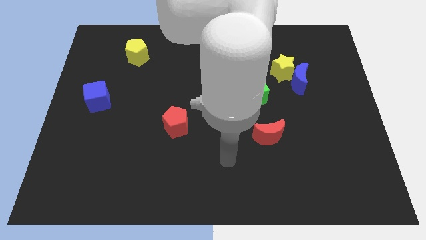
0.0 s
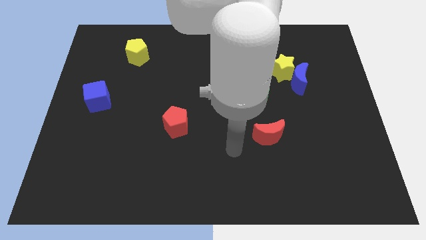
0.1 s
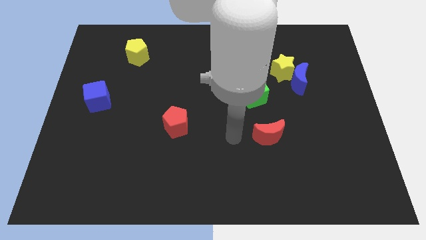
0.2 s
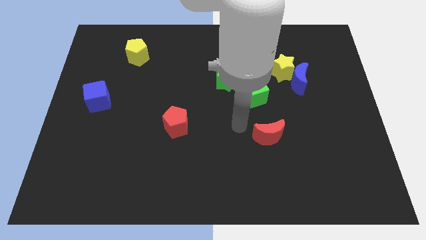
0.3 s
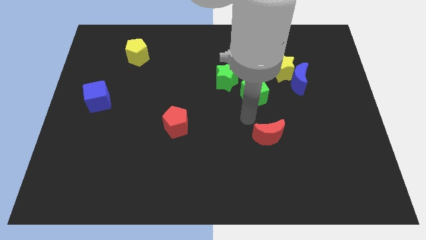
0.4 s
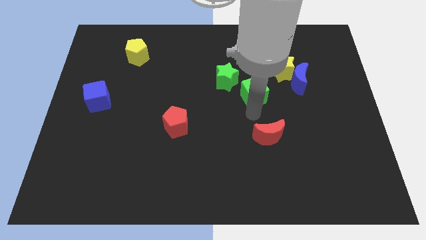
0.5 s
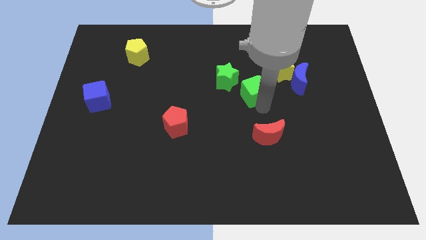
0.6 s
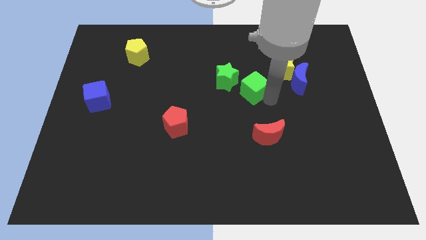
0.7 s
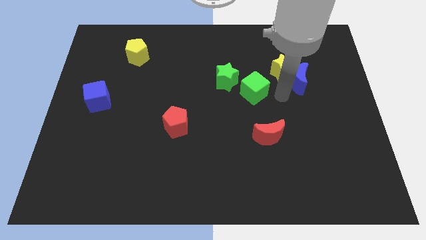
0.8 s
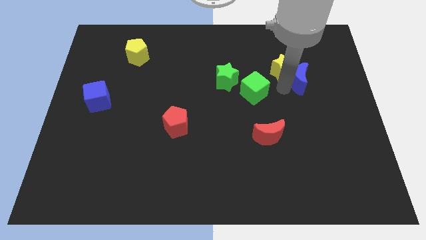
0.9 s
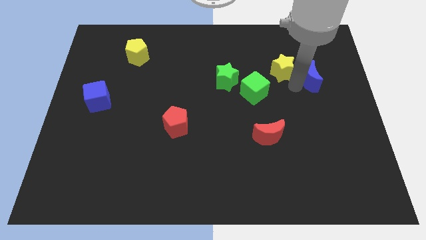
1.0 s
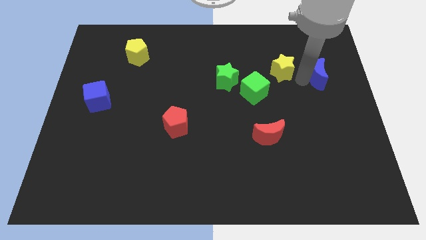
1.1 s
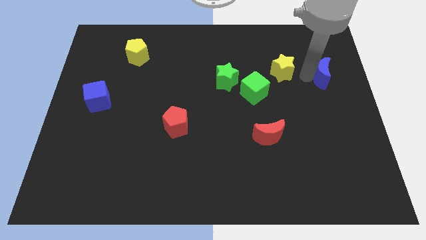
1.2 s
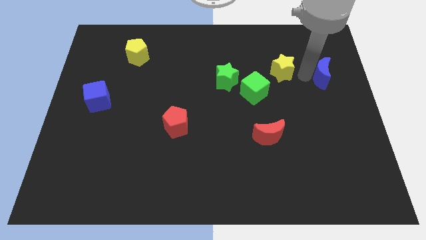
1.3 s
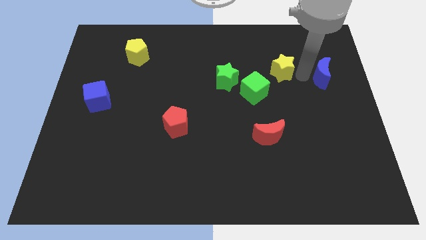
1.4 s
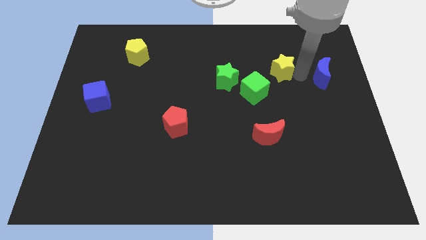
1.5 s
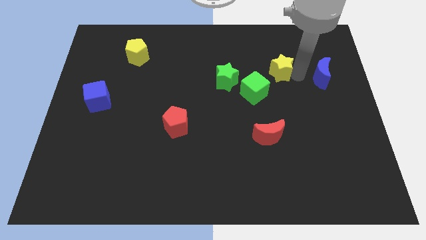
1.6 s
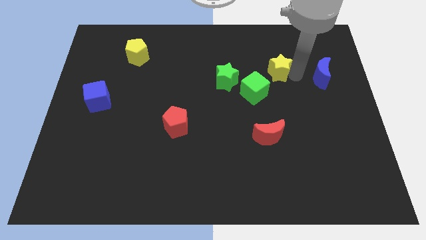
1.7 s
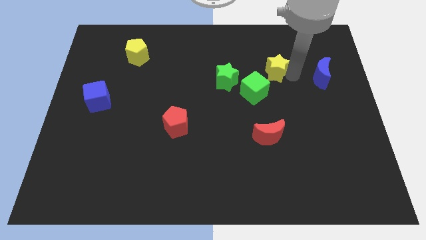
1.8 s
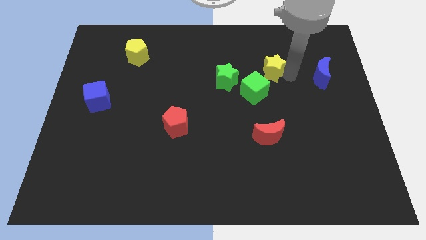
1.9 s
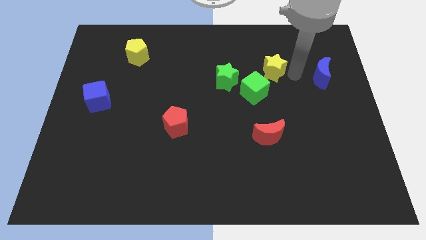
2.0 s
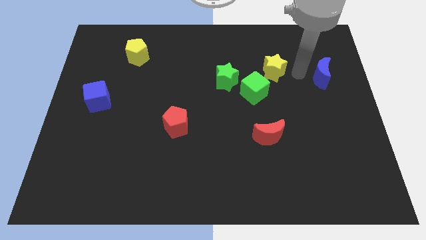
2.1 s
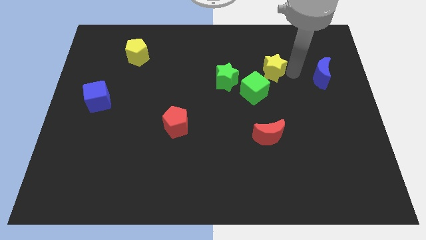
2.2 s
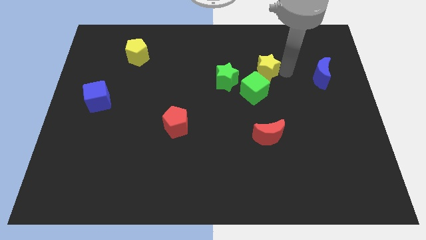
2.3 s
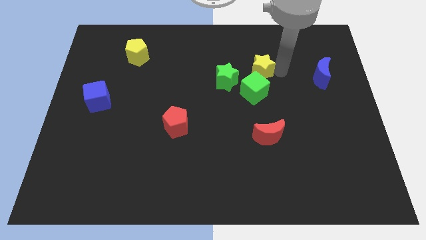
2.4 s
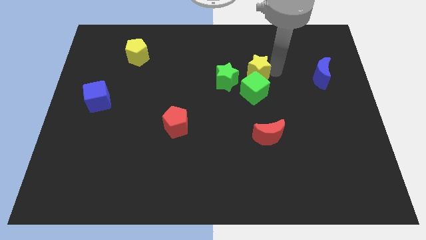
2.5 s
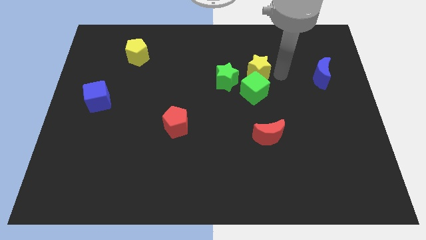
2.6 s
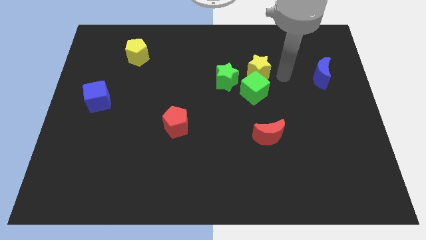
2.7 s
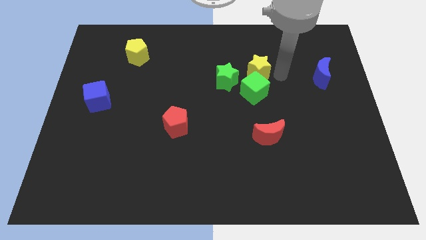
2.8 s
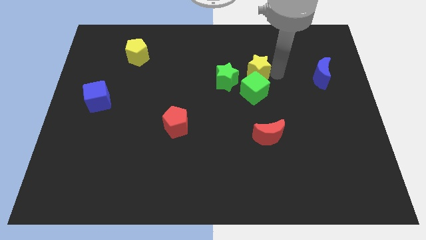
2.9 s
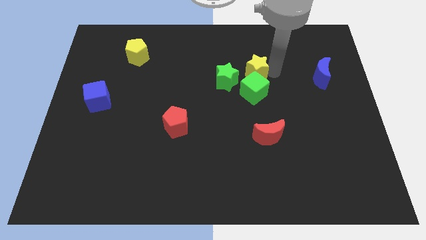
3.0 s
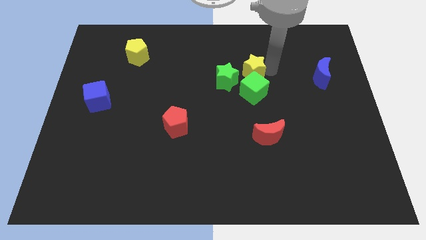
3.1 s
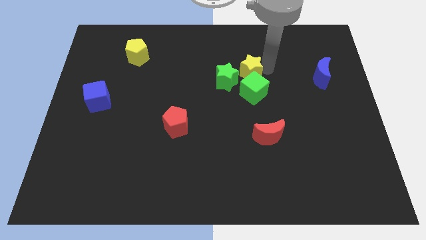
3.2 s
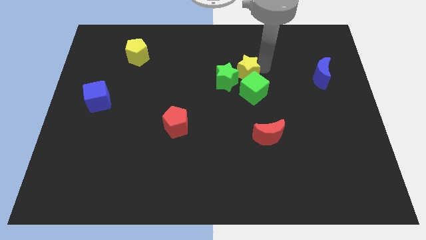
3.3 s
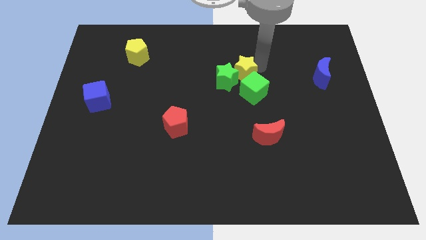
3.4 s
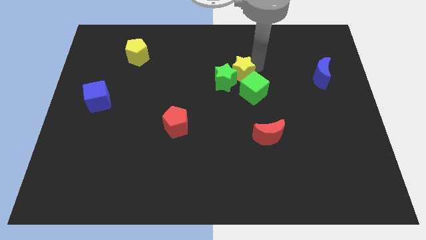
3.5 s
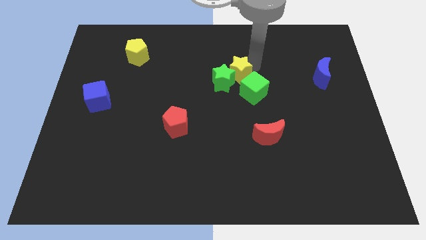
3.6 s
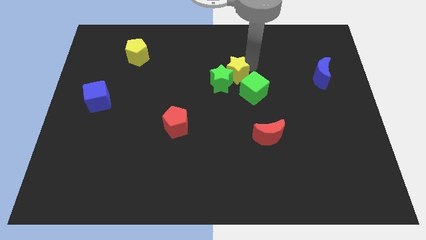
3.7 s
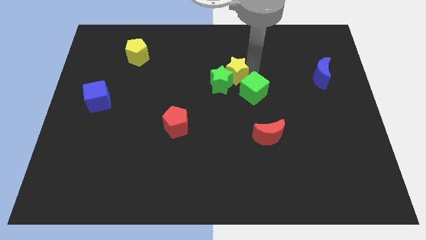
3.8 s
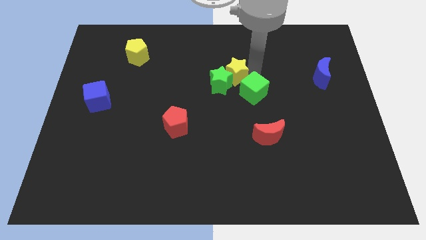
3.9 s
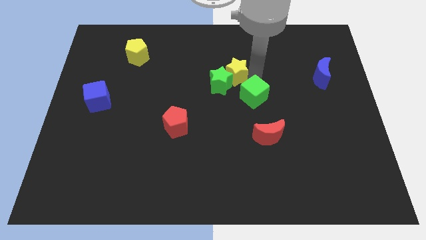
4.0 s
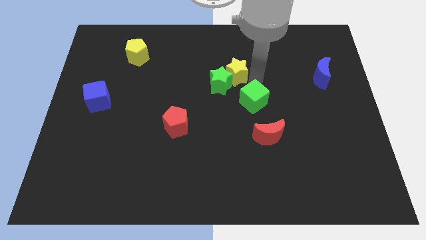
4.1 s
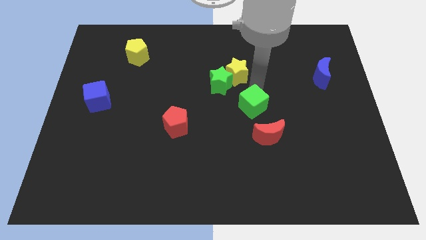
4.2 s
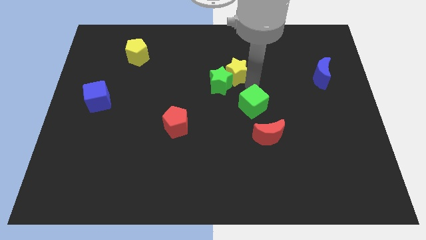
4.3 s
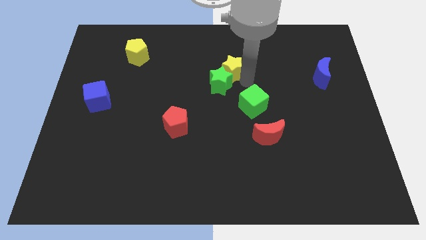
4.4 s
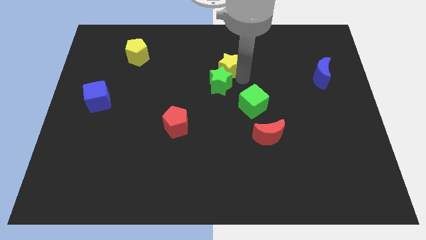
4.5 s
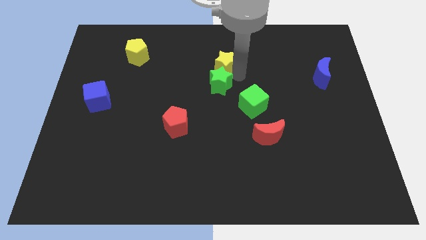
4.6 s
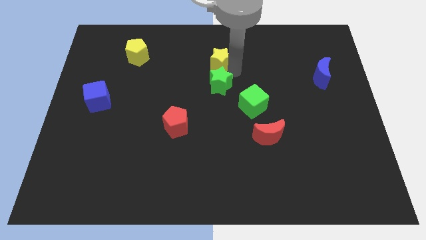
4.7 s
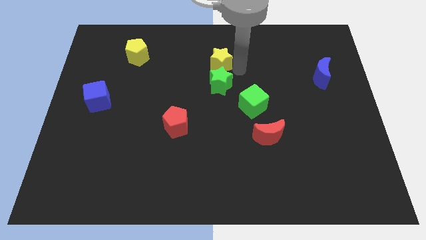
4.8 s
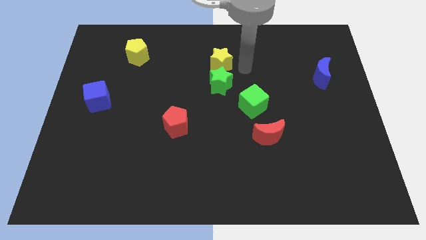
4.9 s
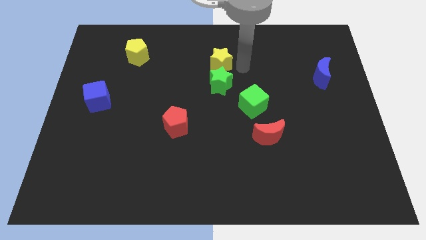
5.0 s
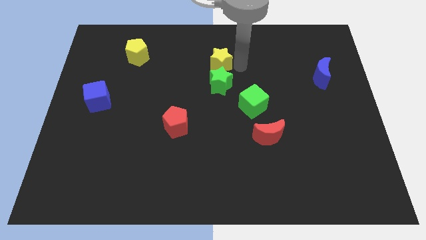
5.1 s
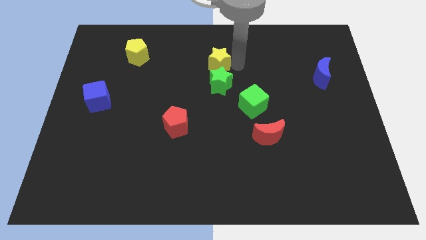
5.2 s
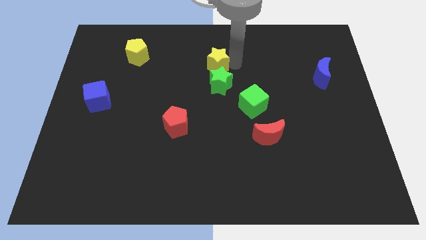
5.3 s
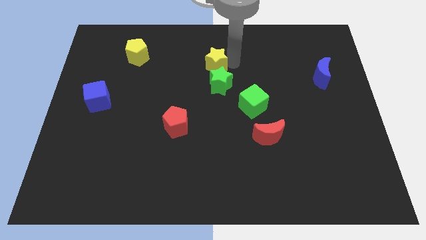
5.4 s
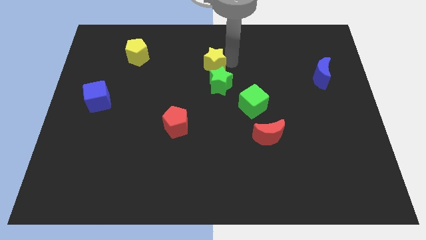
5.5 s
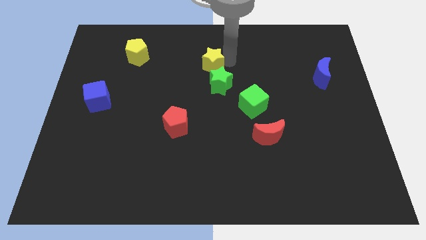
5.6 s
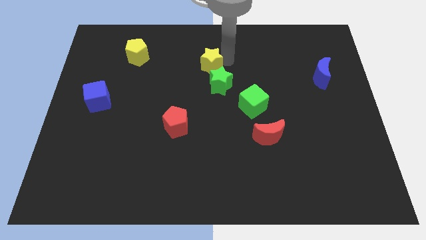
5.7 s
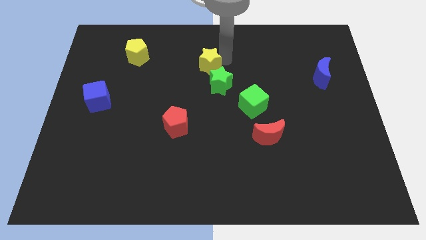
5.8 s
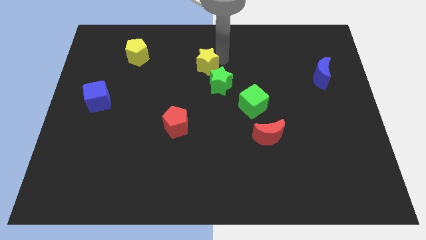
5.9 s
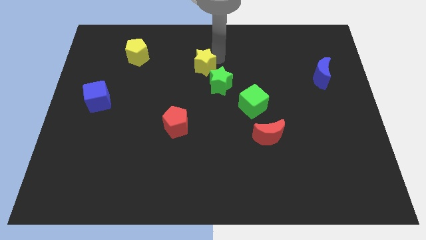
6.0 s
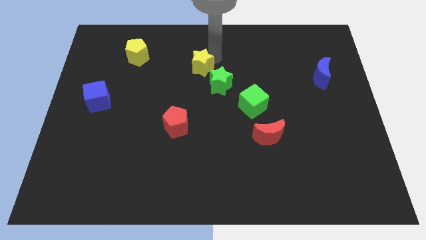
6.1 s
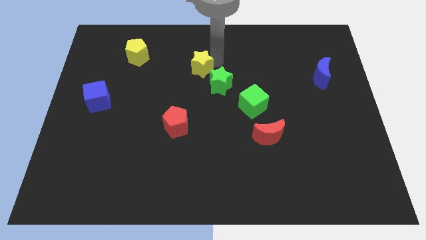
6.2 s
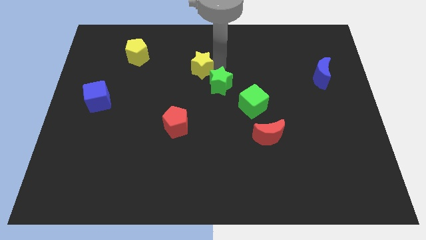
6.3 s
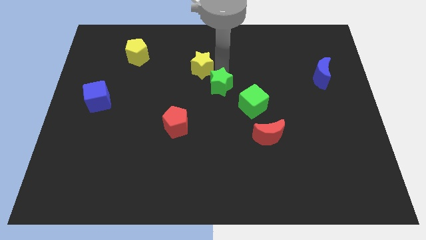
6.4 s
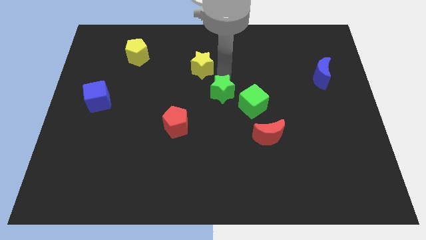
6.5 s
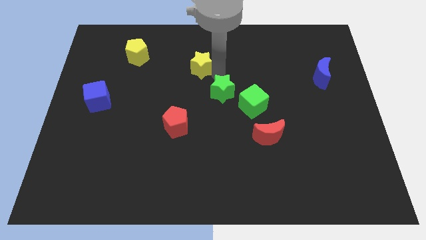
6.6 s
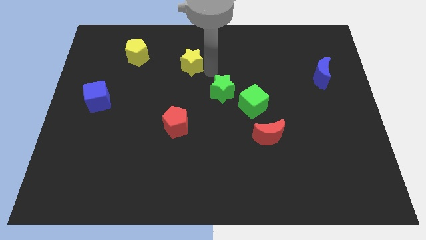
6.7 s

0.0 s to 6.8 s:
put the yellow star just right of the yellow pentagon

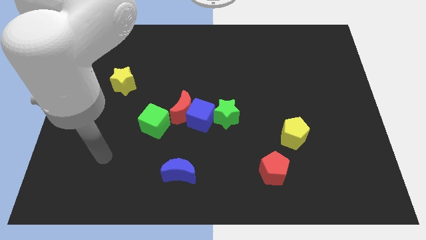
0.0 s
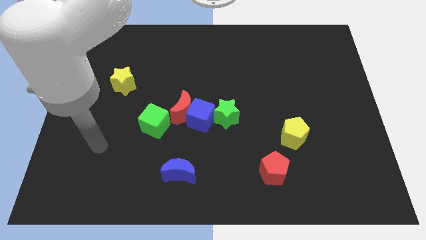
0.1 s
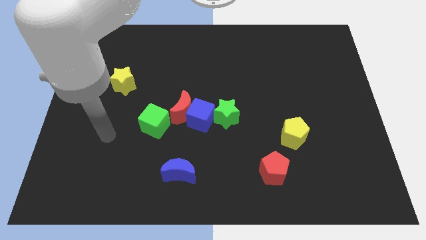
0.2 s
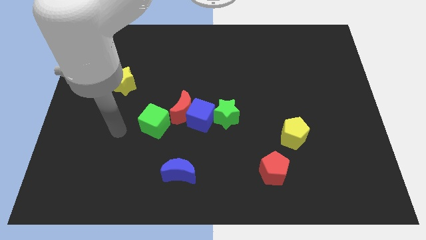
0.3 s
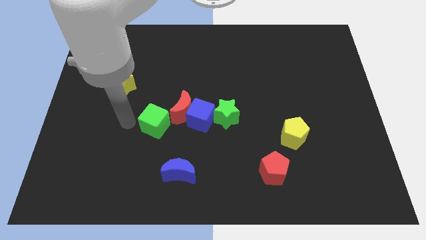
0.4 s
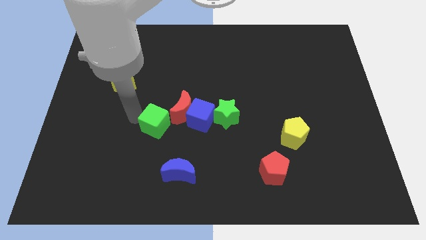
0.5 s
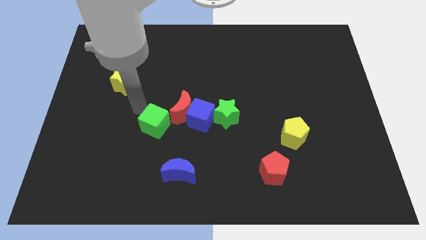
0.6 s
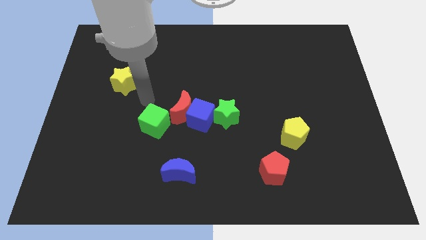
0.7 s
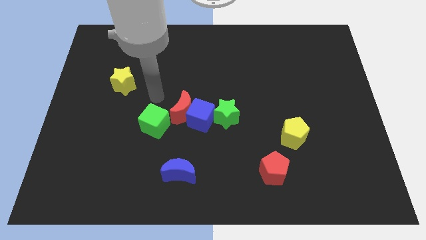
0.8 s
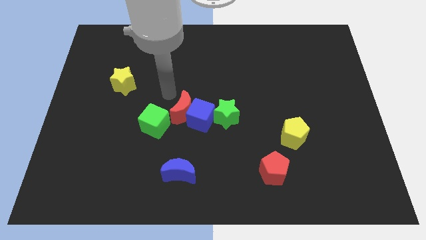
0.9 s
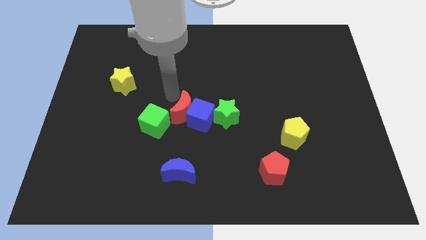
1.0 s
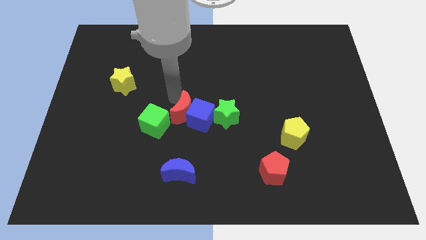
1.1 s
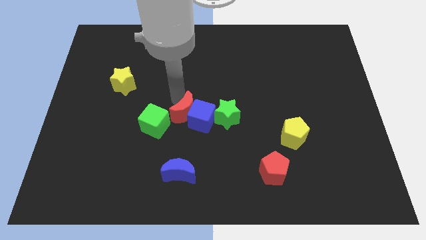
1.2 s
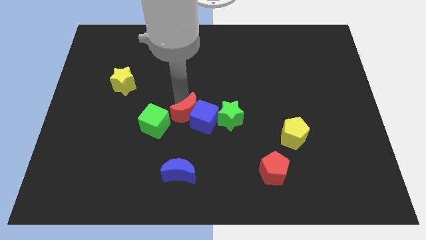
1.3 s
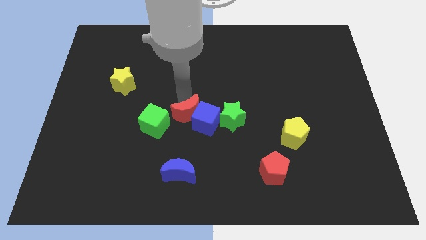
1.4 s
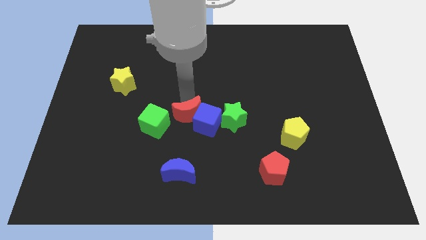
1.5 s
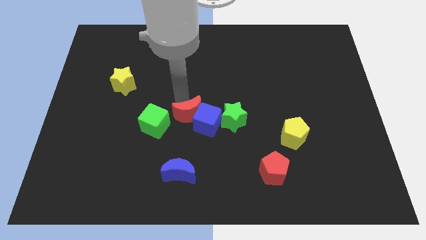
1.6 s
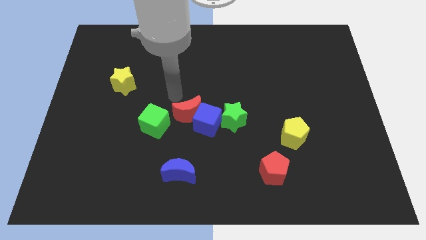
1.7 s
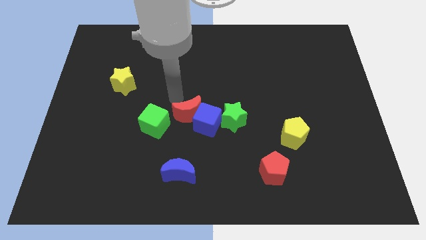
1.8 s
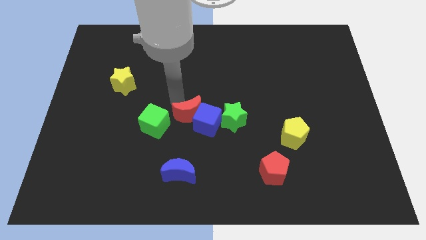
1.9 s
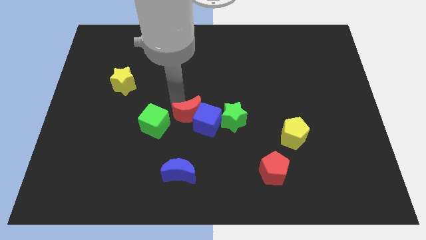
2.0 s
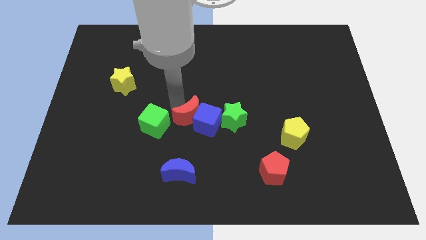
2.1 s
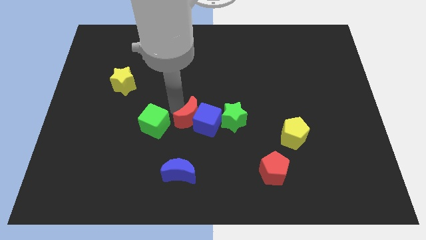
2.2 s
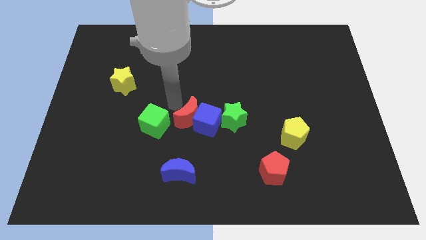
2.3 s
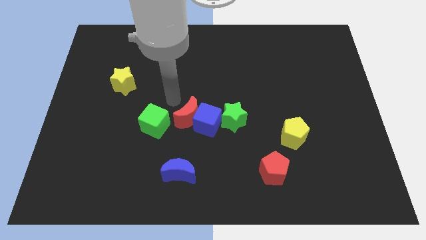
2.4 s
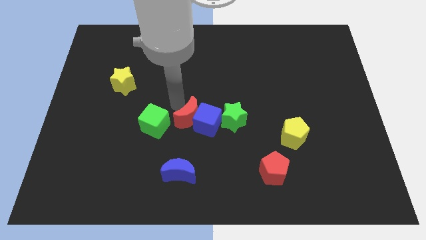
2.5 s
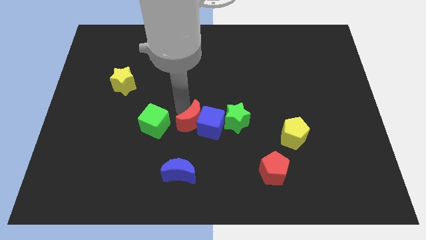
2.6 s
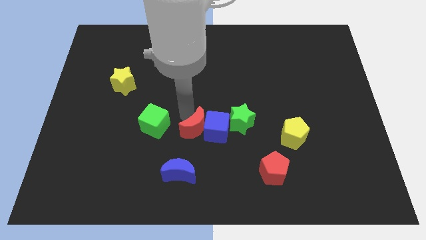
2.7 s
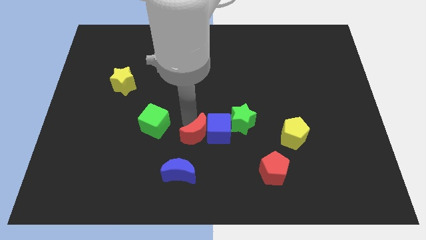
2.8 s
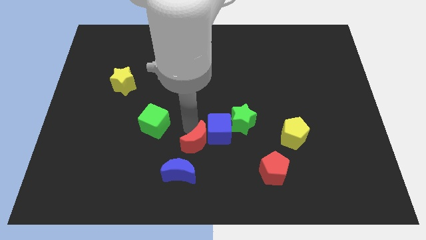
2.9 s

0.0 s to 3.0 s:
push the red moon to the bottom left side of the green star
